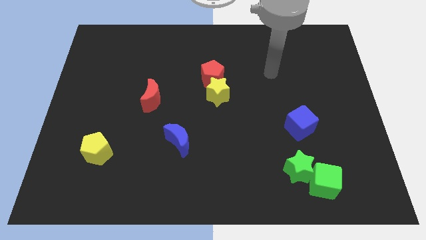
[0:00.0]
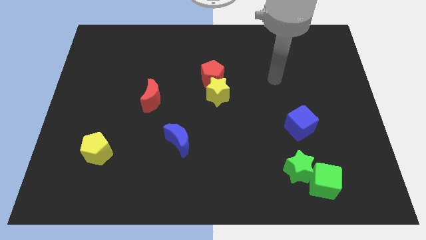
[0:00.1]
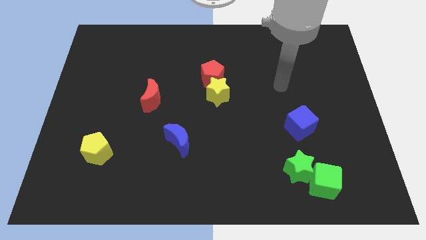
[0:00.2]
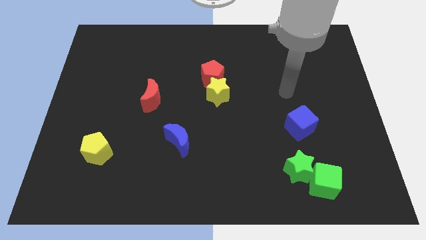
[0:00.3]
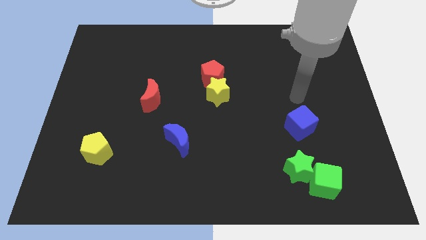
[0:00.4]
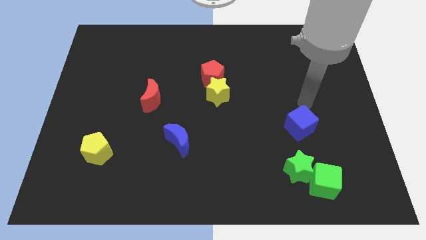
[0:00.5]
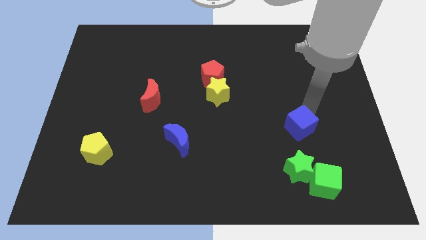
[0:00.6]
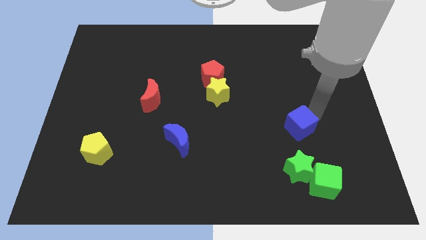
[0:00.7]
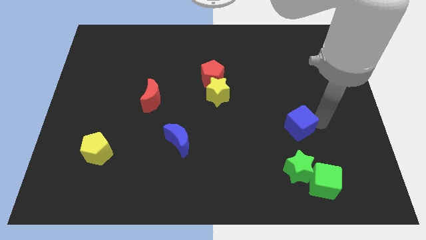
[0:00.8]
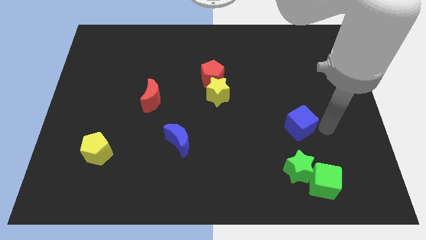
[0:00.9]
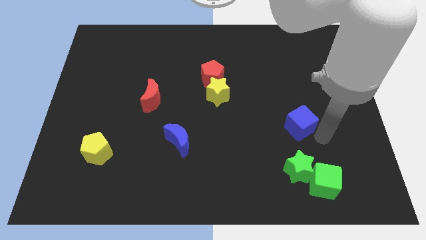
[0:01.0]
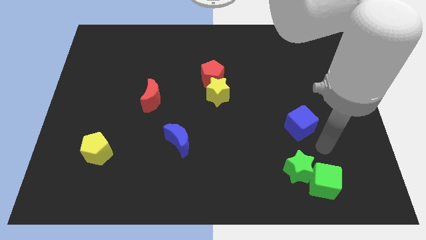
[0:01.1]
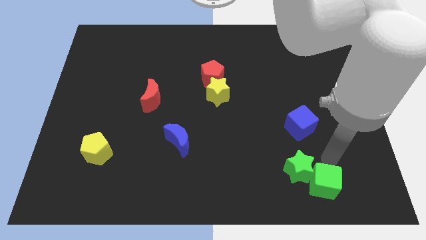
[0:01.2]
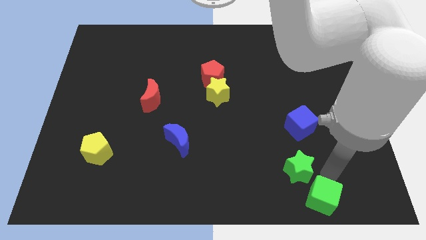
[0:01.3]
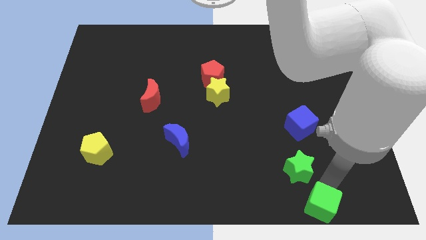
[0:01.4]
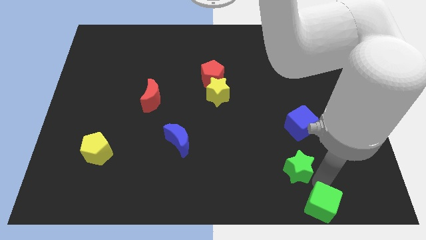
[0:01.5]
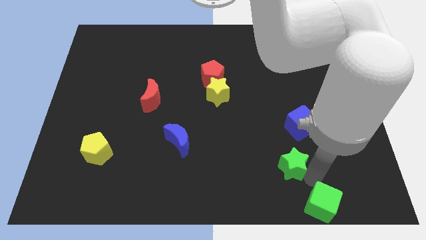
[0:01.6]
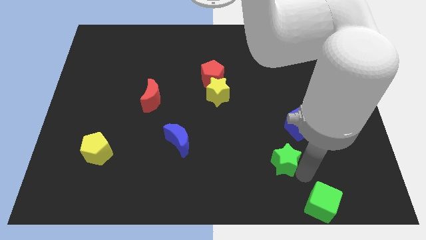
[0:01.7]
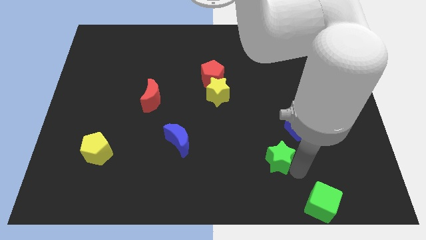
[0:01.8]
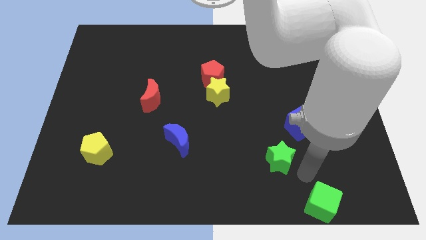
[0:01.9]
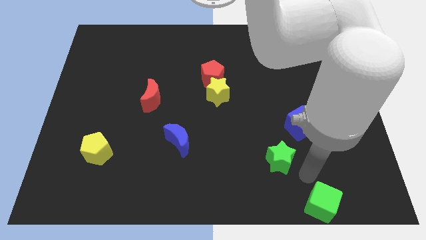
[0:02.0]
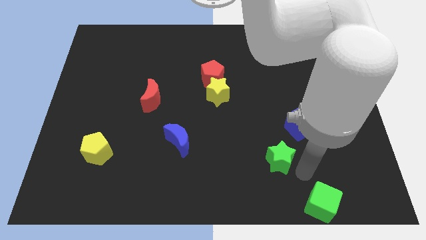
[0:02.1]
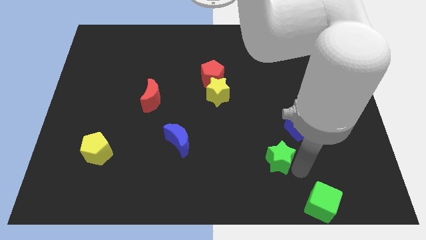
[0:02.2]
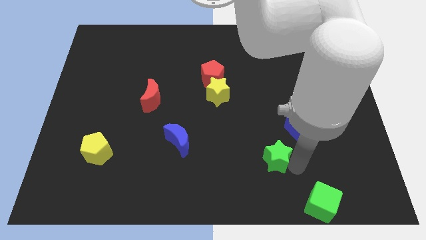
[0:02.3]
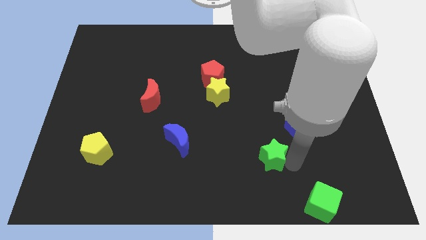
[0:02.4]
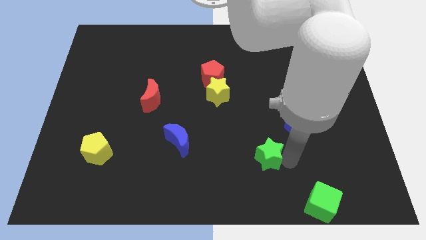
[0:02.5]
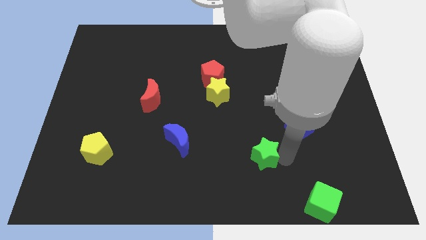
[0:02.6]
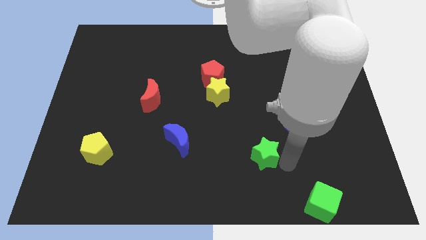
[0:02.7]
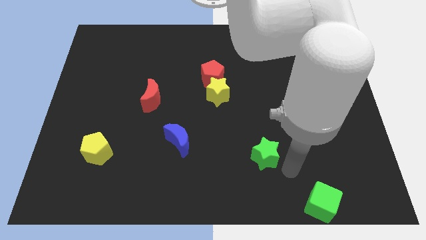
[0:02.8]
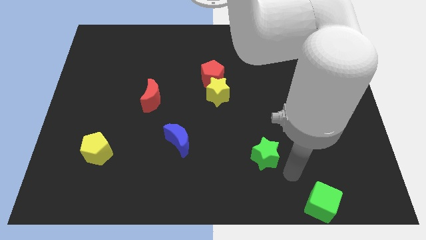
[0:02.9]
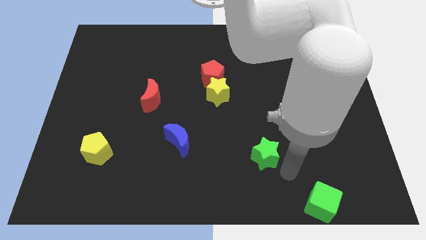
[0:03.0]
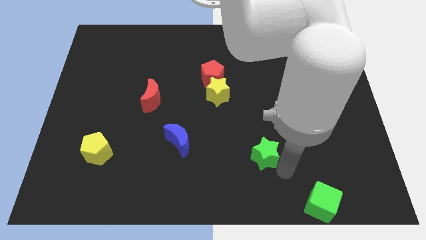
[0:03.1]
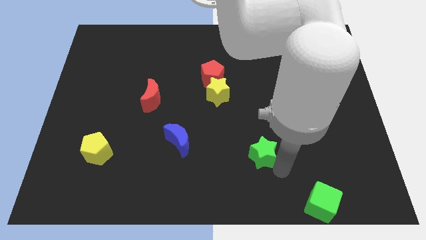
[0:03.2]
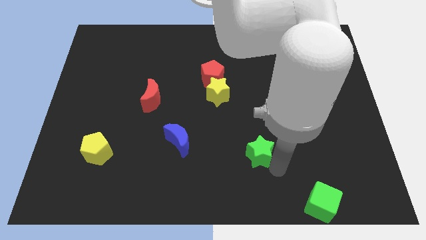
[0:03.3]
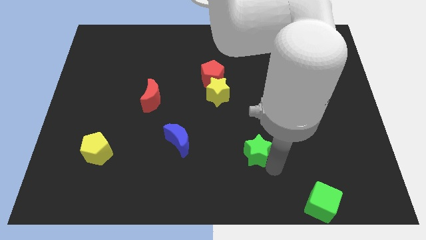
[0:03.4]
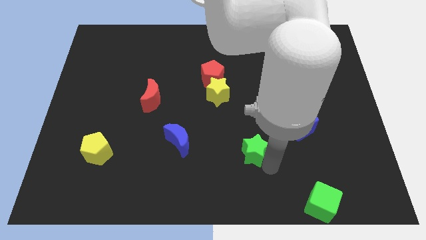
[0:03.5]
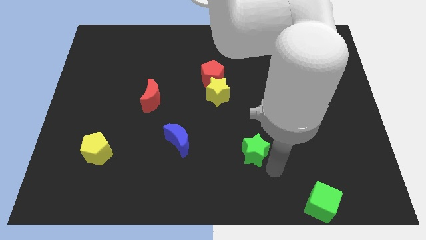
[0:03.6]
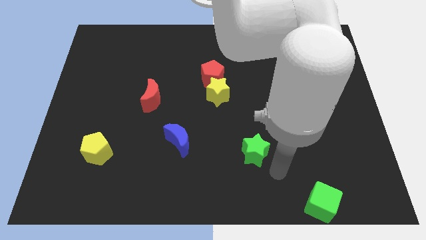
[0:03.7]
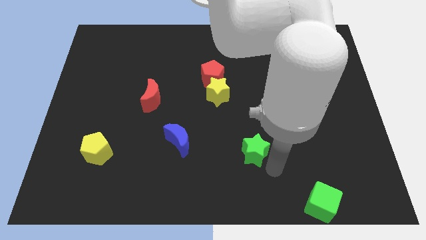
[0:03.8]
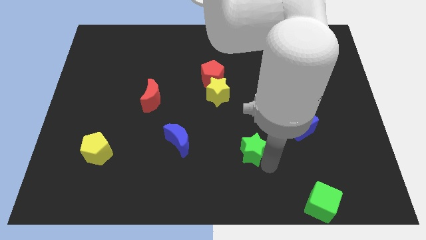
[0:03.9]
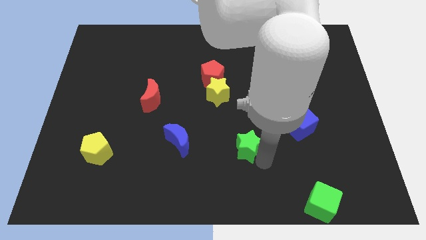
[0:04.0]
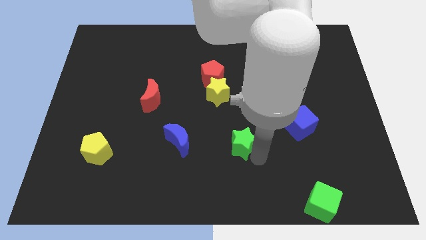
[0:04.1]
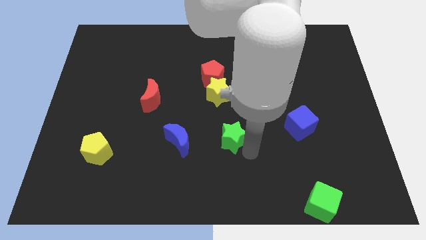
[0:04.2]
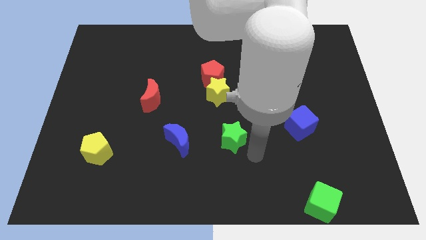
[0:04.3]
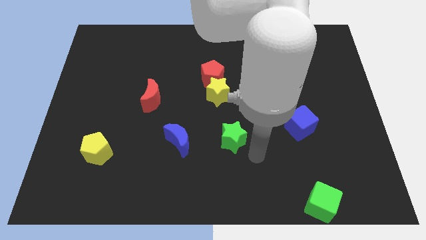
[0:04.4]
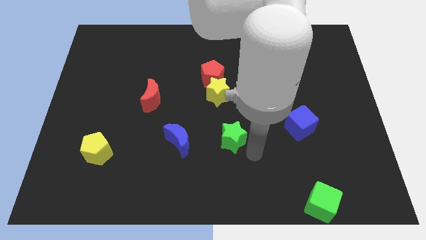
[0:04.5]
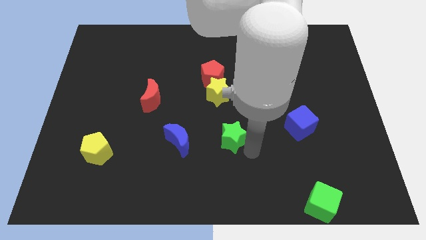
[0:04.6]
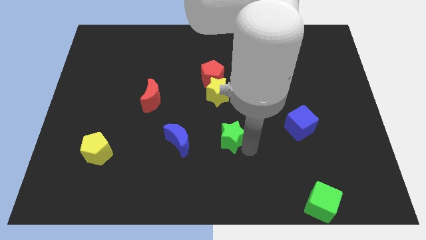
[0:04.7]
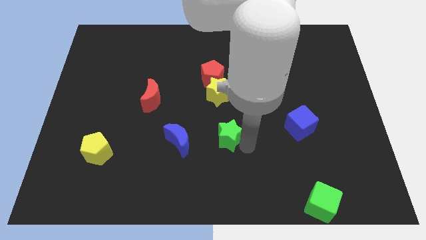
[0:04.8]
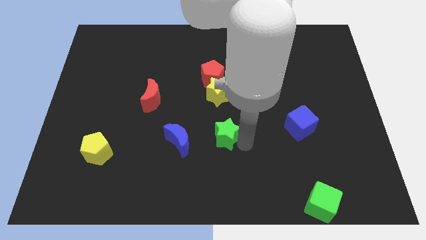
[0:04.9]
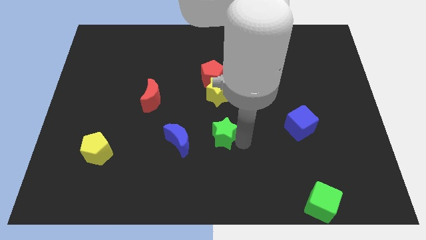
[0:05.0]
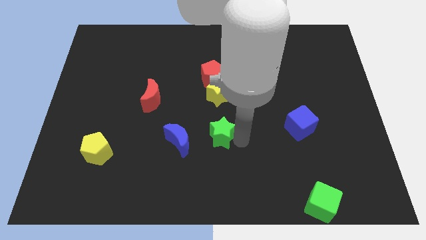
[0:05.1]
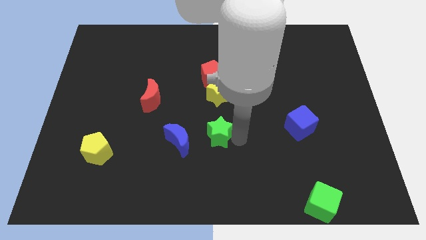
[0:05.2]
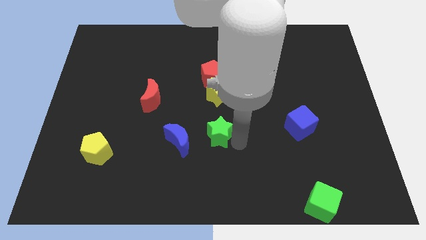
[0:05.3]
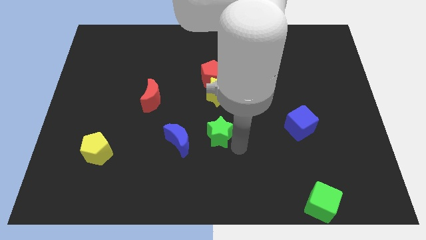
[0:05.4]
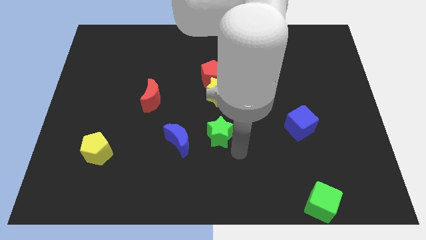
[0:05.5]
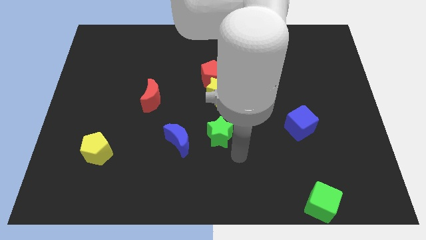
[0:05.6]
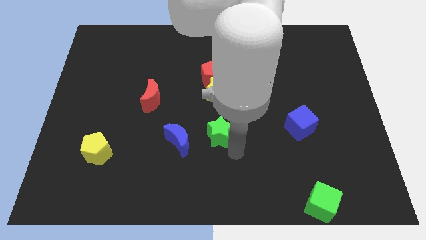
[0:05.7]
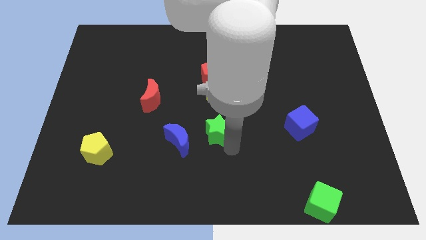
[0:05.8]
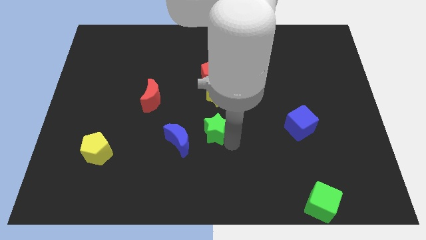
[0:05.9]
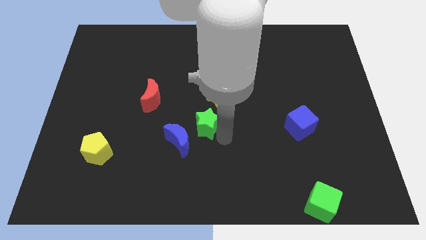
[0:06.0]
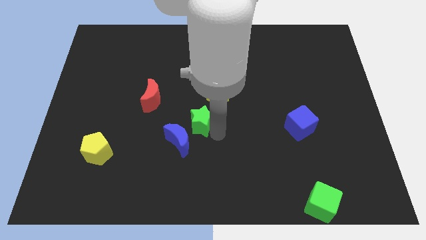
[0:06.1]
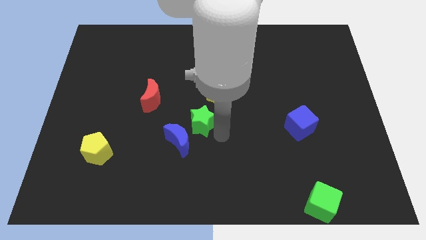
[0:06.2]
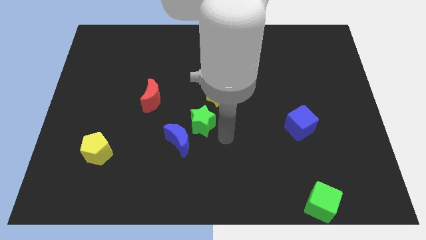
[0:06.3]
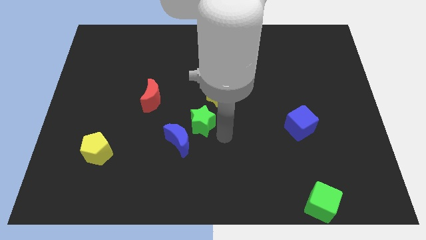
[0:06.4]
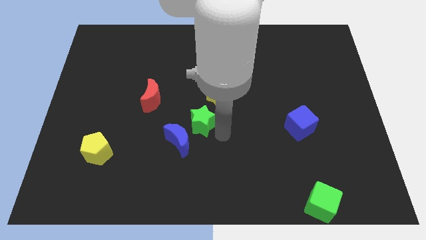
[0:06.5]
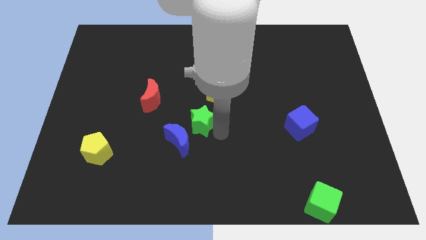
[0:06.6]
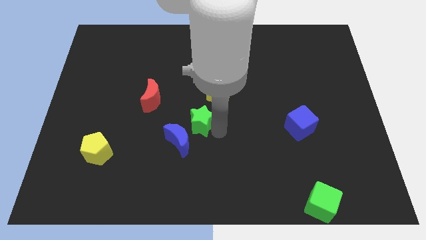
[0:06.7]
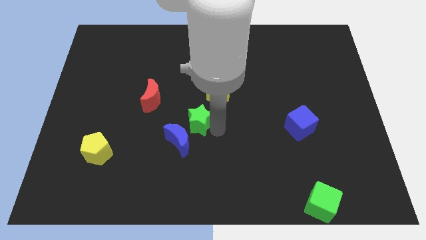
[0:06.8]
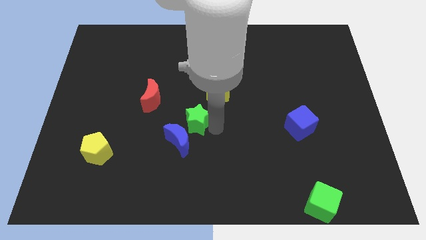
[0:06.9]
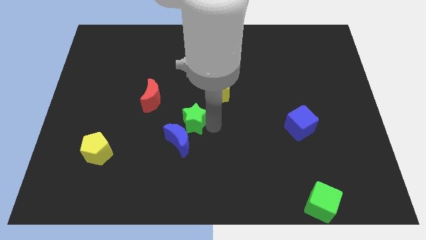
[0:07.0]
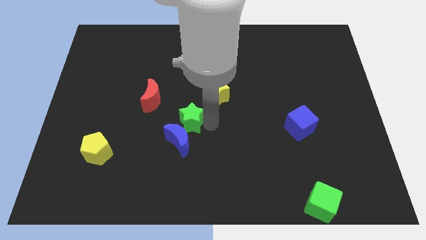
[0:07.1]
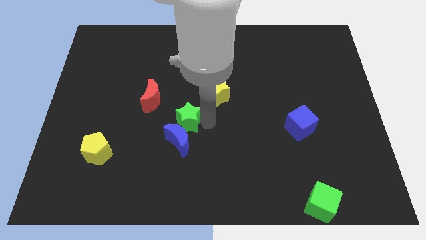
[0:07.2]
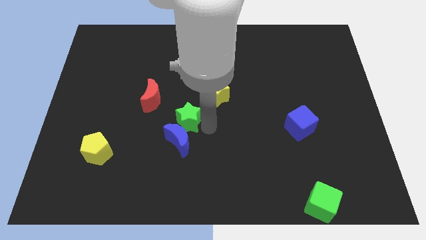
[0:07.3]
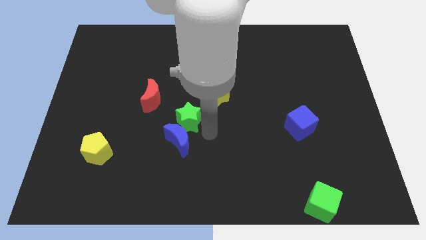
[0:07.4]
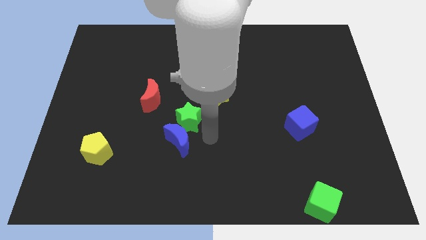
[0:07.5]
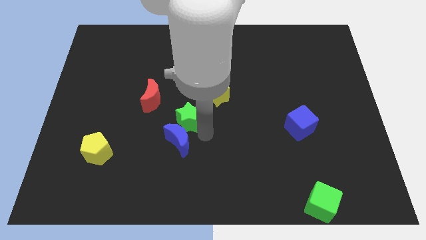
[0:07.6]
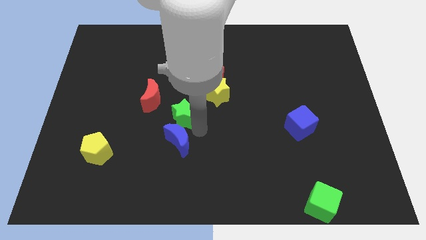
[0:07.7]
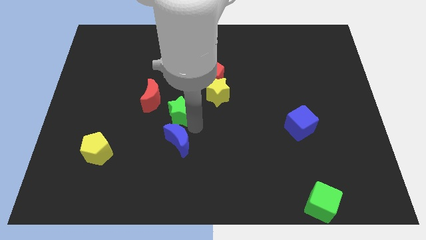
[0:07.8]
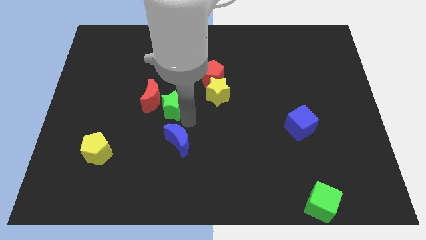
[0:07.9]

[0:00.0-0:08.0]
push the green star to the red moon
